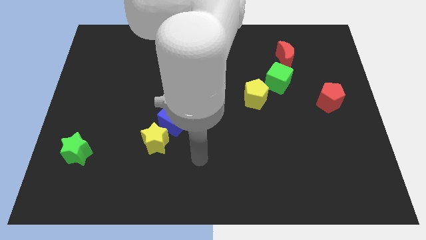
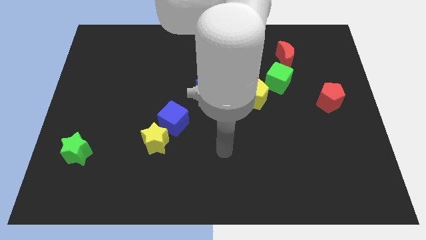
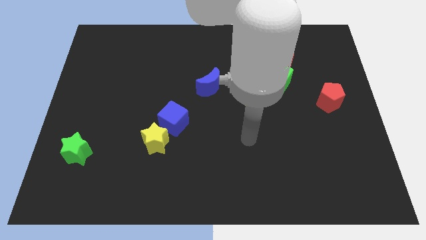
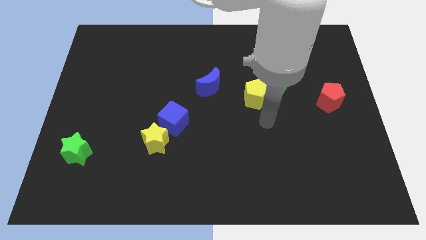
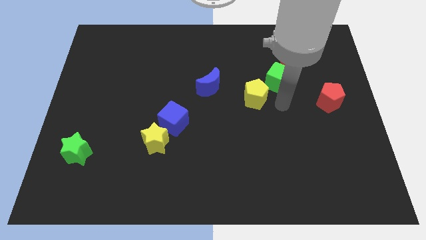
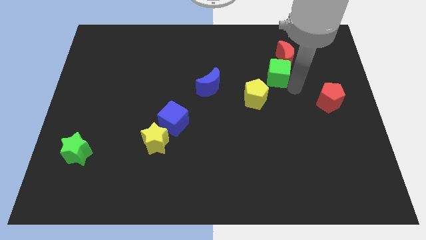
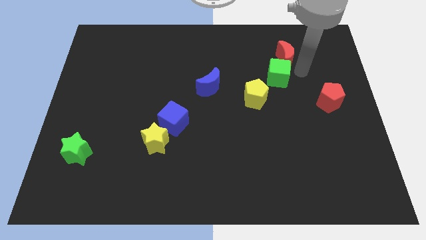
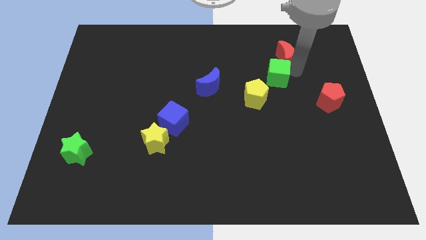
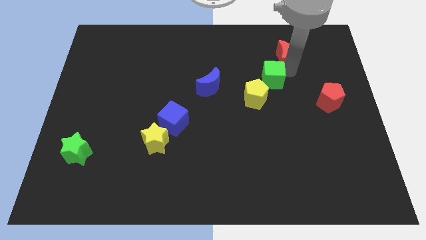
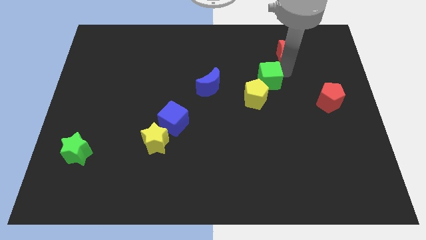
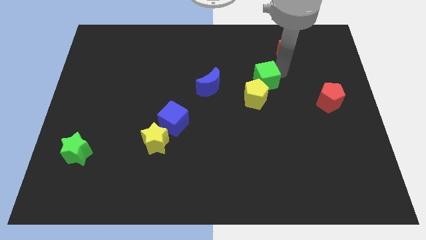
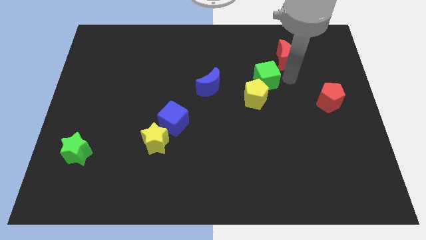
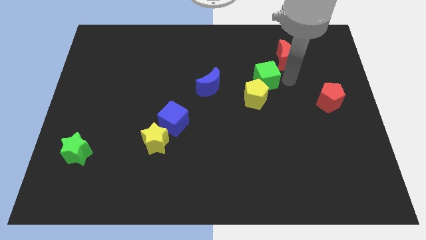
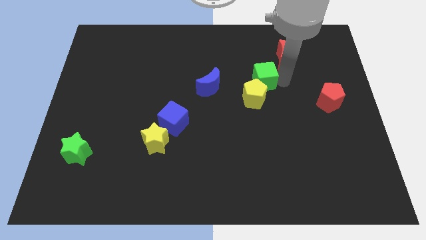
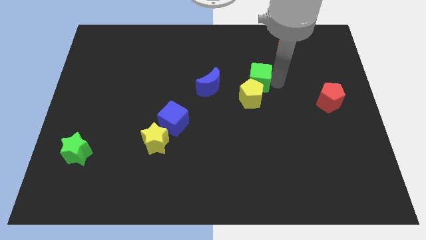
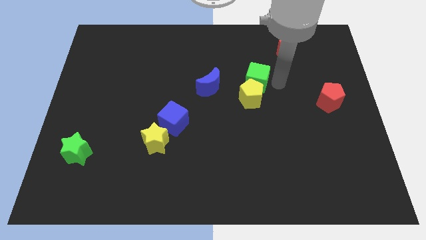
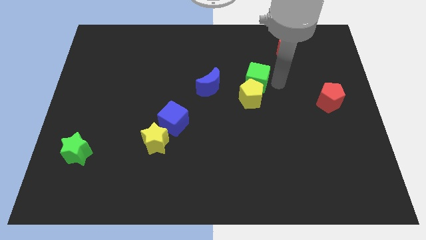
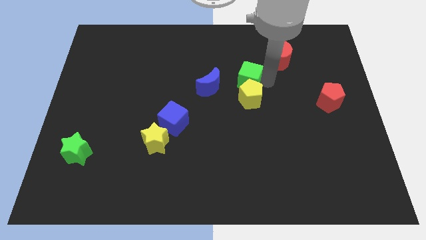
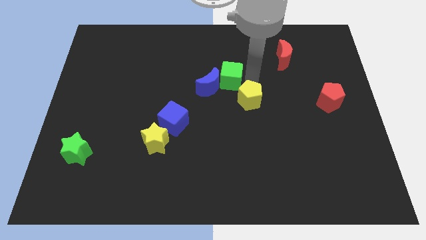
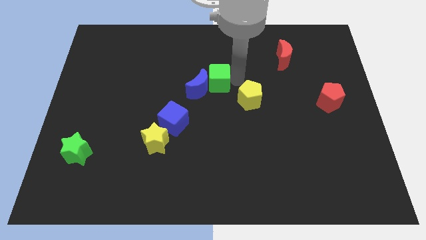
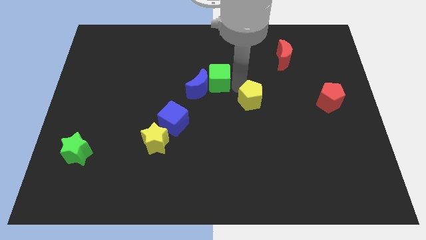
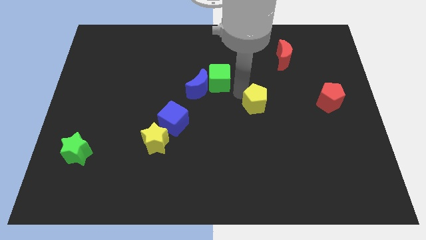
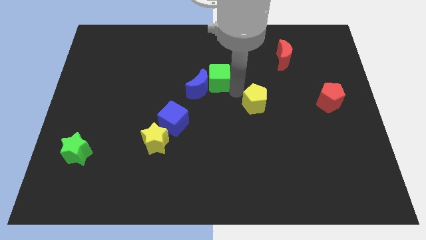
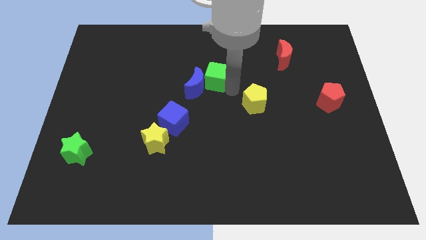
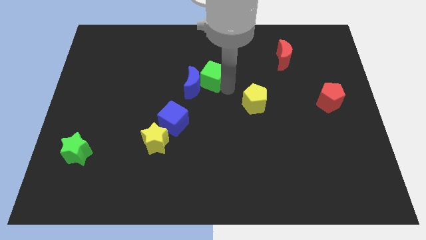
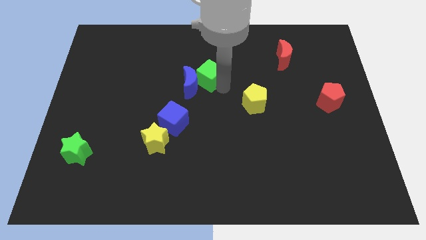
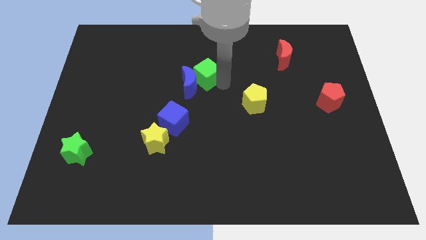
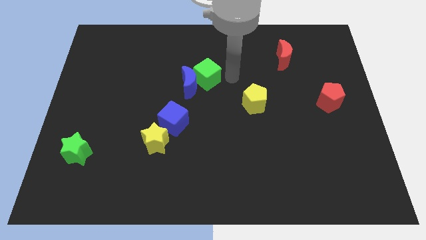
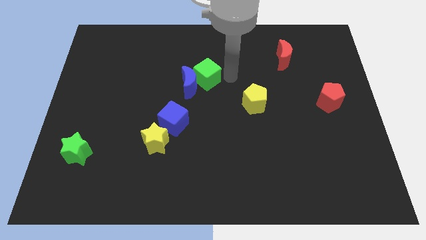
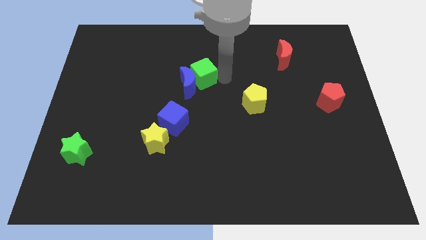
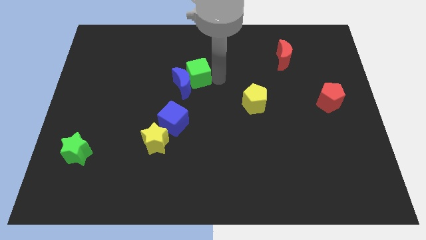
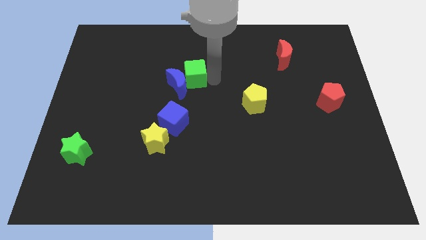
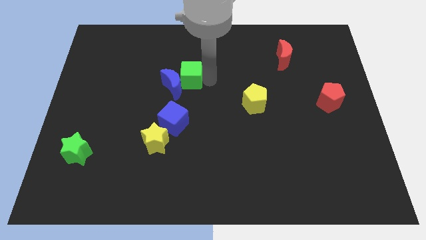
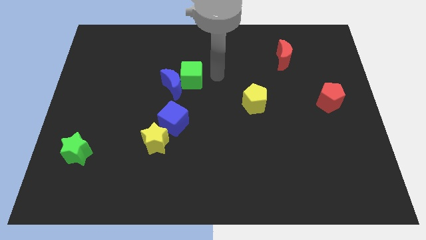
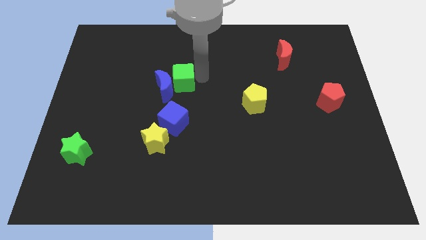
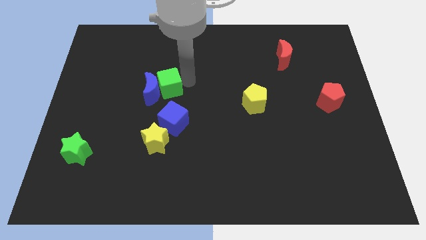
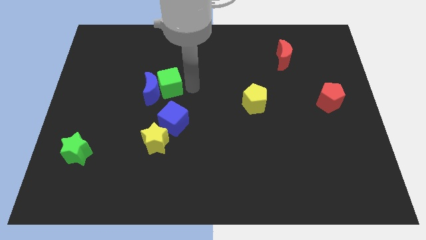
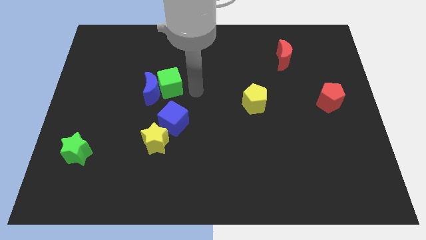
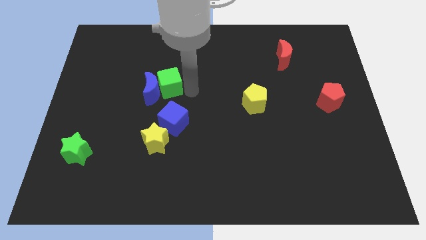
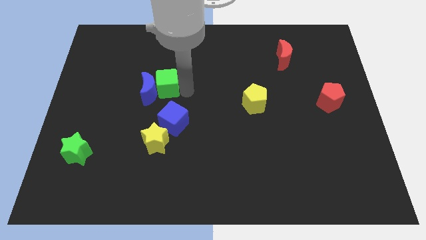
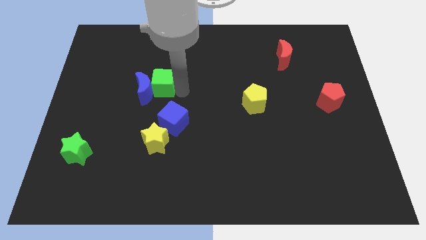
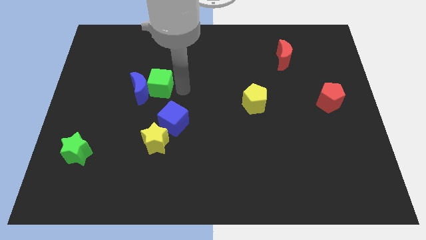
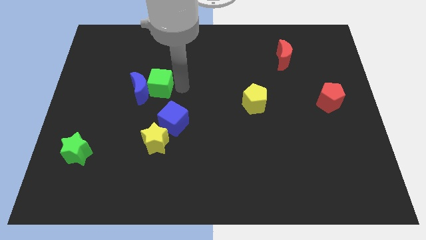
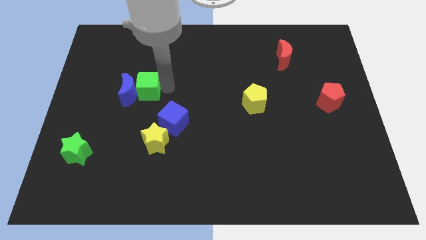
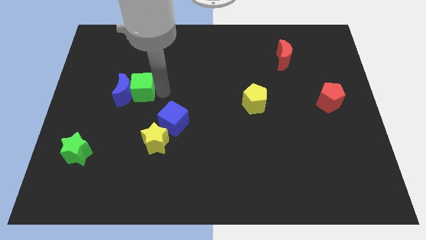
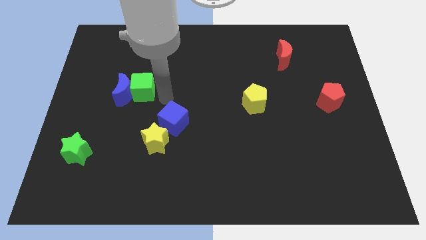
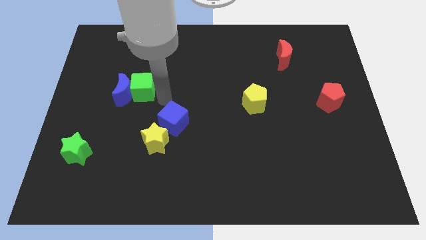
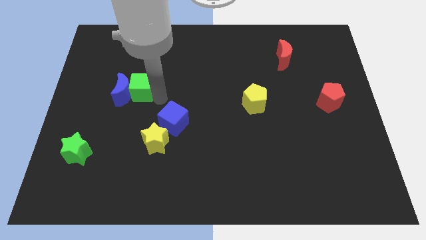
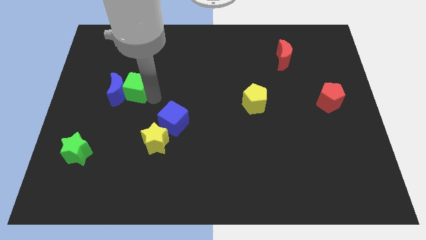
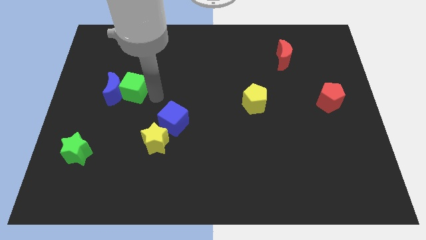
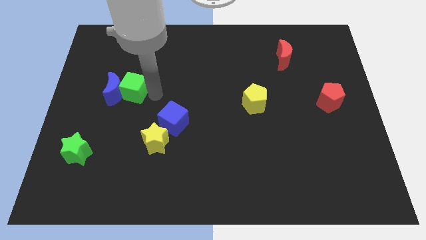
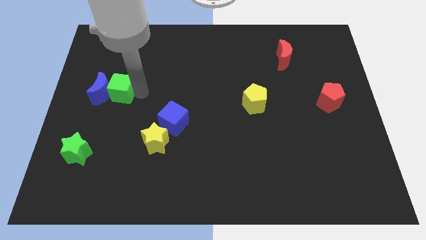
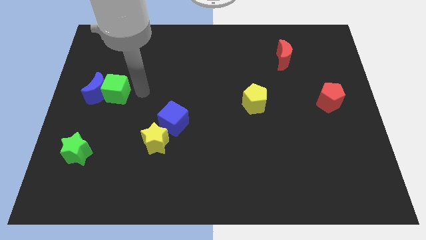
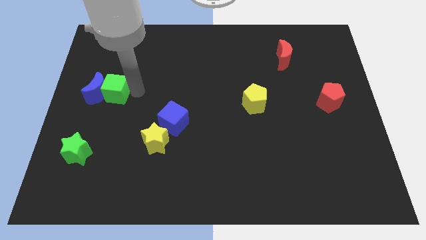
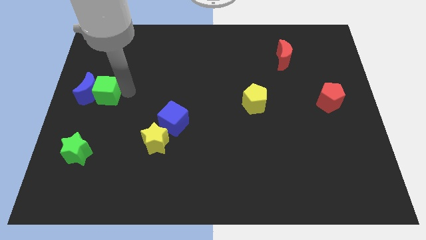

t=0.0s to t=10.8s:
push the green cube to the center left
